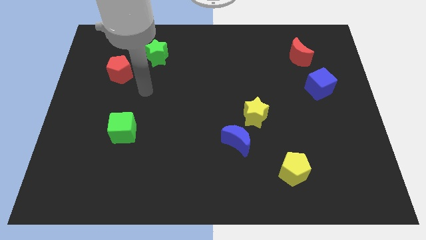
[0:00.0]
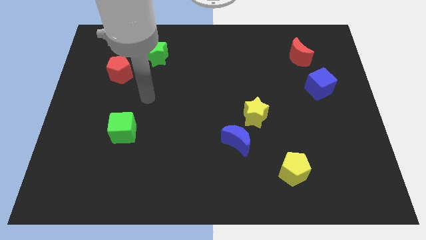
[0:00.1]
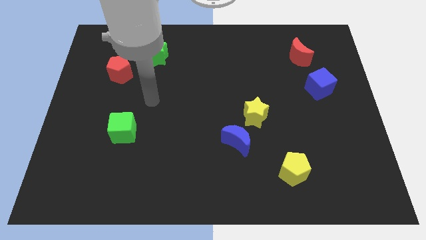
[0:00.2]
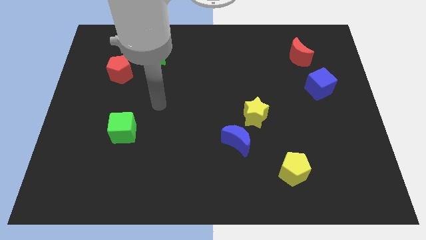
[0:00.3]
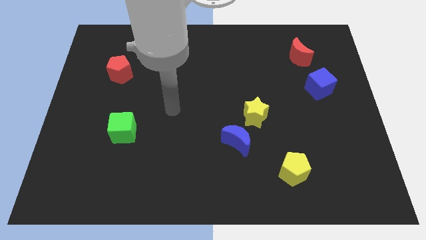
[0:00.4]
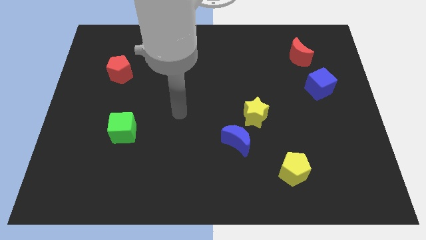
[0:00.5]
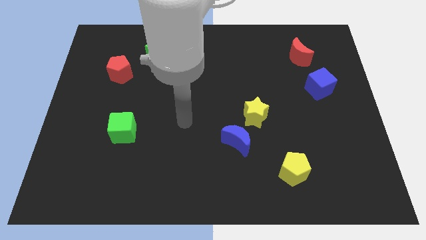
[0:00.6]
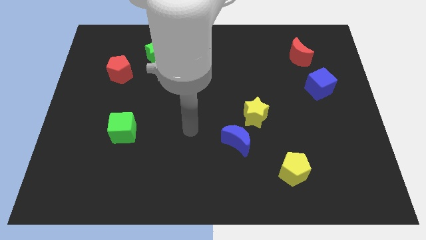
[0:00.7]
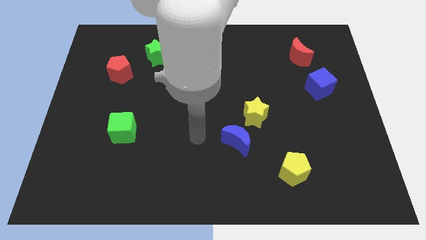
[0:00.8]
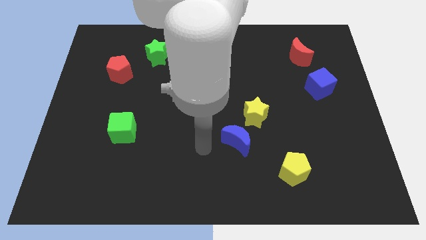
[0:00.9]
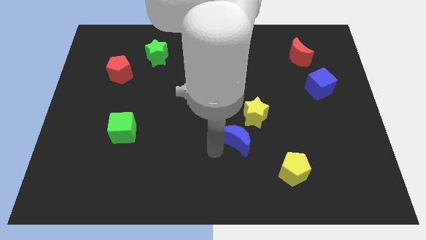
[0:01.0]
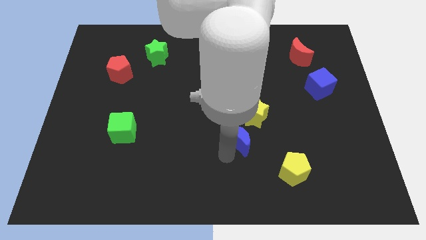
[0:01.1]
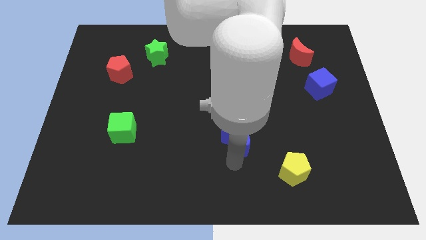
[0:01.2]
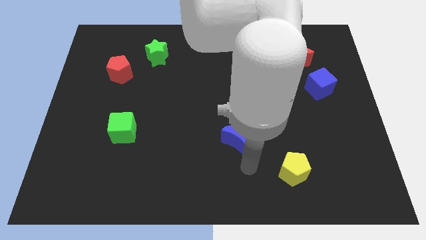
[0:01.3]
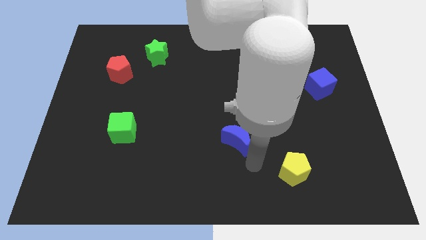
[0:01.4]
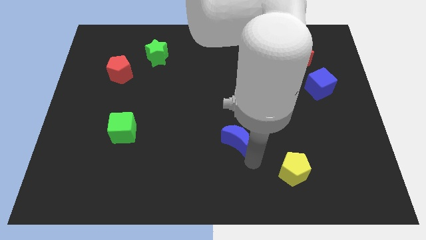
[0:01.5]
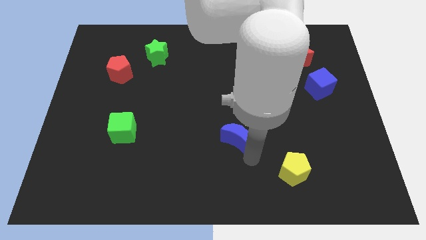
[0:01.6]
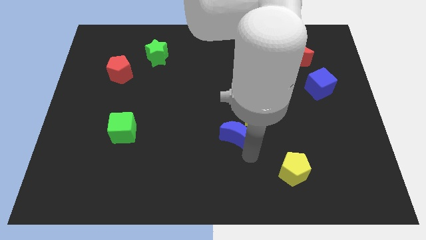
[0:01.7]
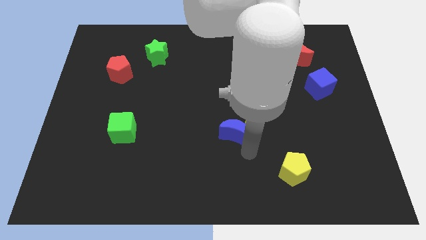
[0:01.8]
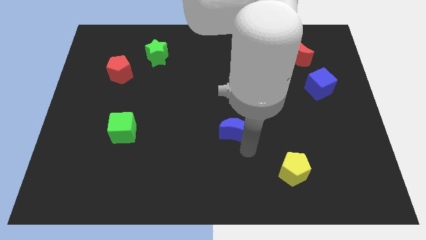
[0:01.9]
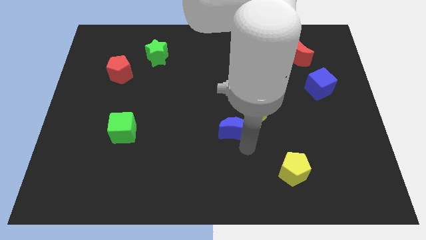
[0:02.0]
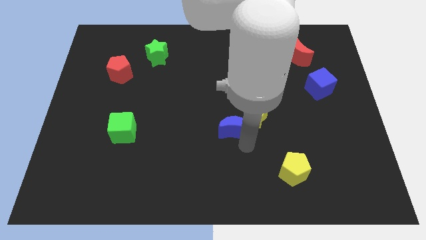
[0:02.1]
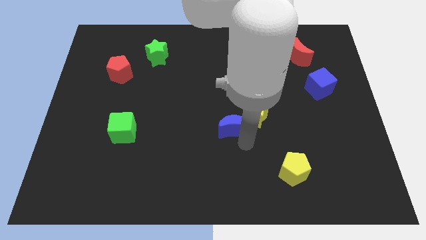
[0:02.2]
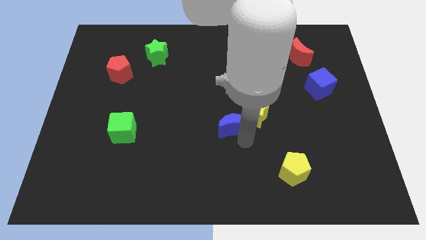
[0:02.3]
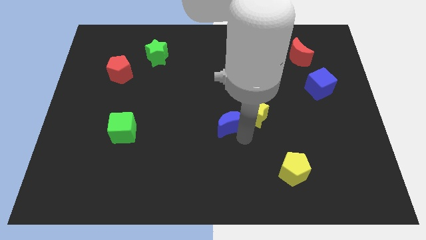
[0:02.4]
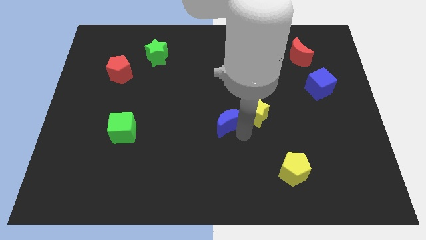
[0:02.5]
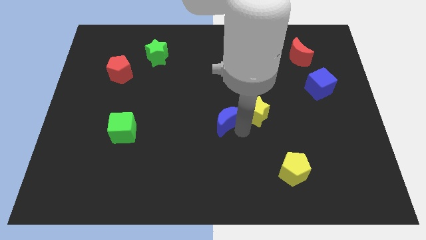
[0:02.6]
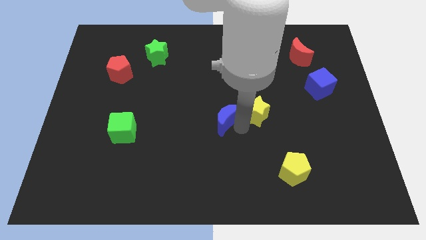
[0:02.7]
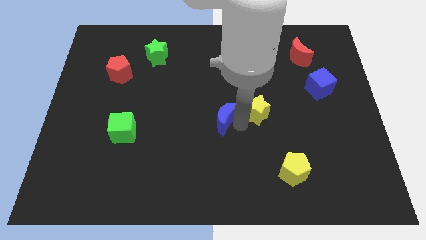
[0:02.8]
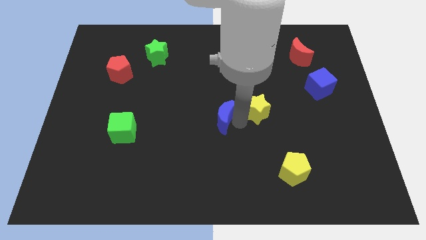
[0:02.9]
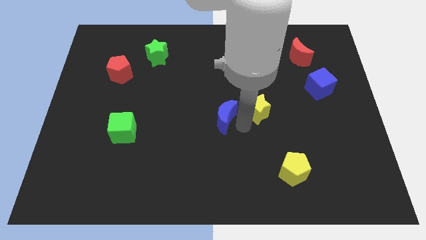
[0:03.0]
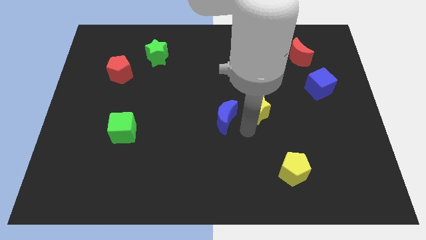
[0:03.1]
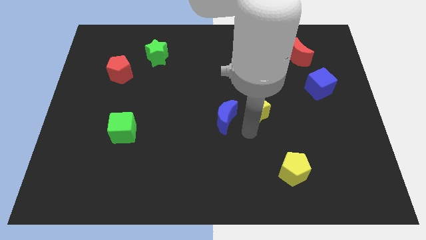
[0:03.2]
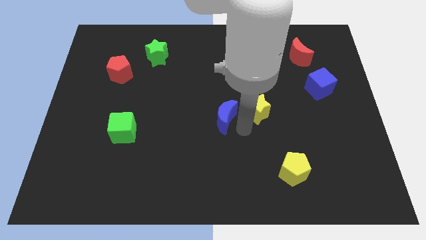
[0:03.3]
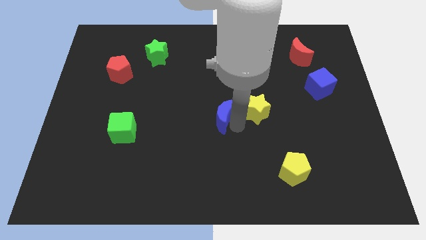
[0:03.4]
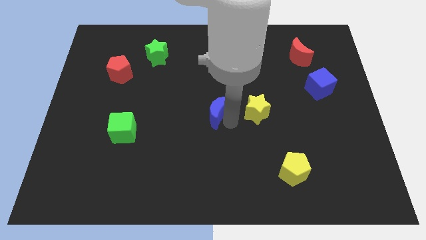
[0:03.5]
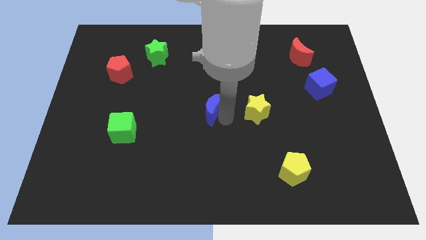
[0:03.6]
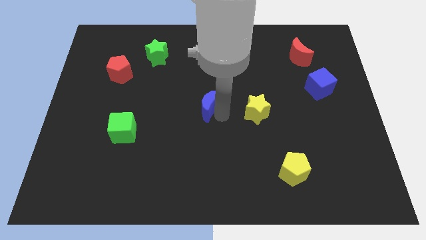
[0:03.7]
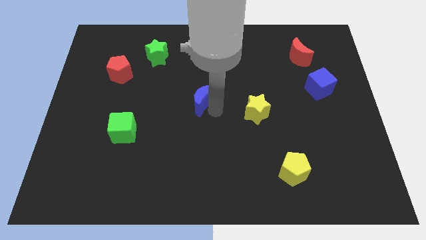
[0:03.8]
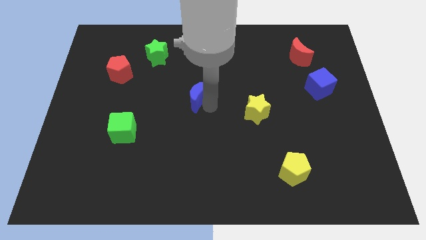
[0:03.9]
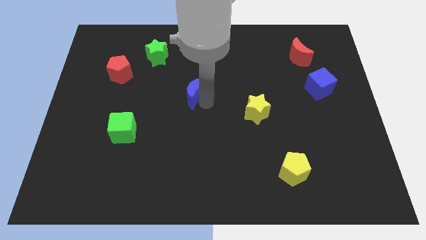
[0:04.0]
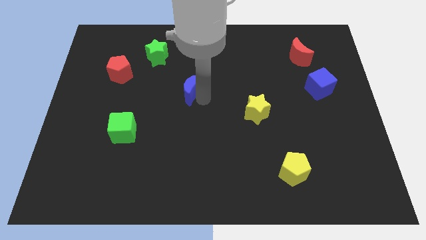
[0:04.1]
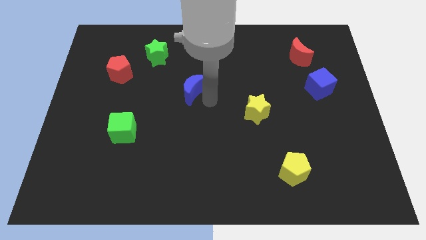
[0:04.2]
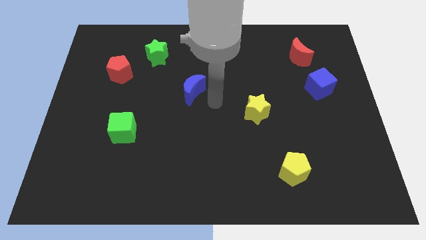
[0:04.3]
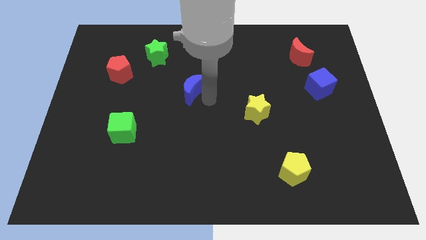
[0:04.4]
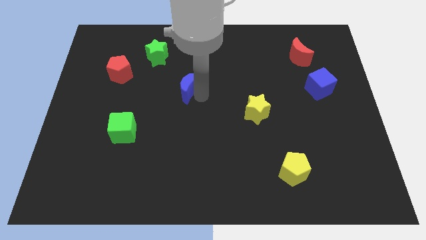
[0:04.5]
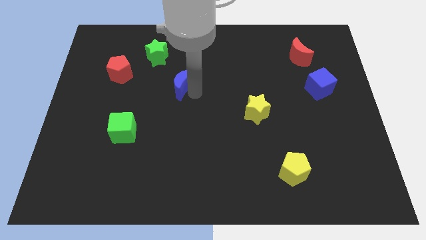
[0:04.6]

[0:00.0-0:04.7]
slide the blue moon upwards and then left

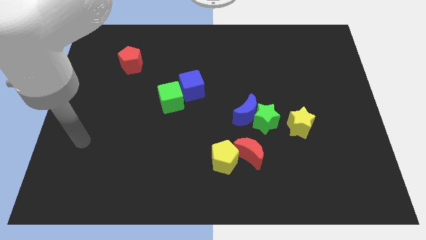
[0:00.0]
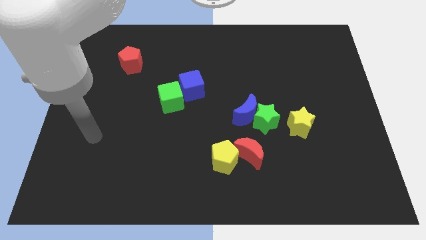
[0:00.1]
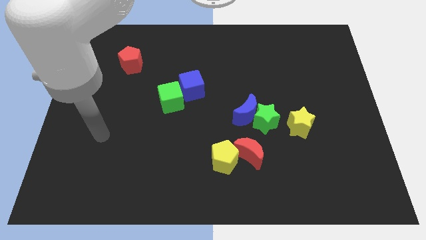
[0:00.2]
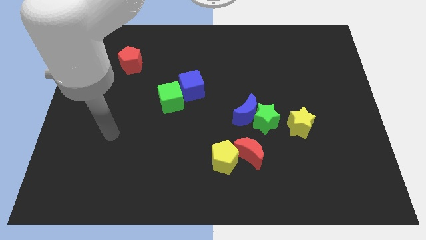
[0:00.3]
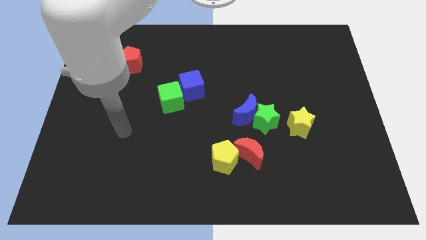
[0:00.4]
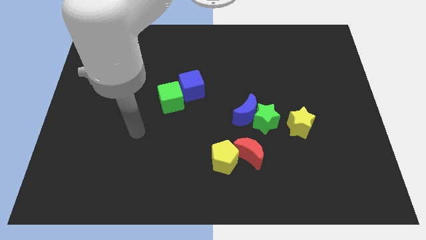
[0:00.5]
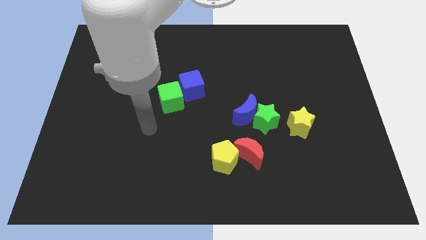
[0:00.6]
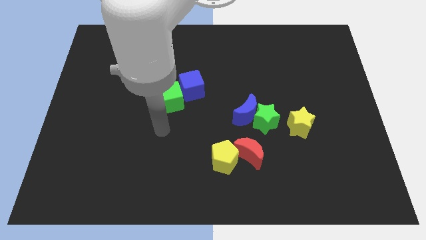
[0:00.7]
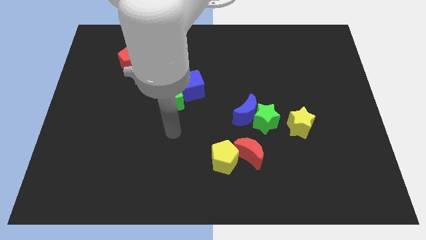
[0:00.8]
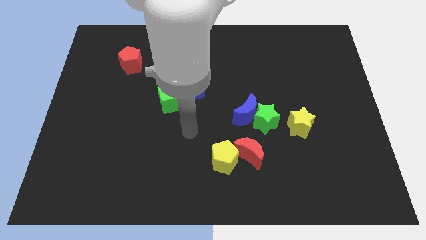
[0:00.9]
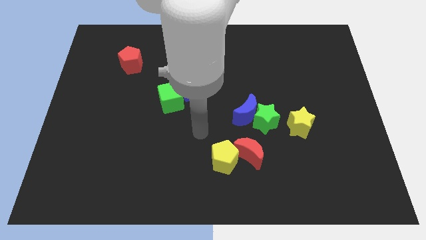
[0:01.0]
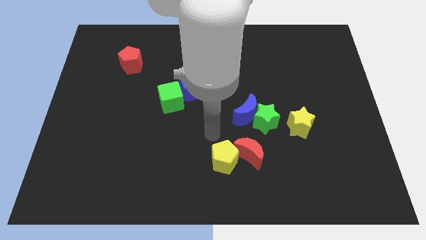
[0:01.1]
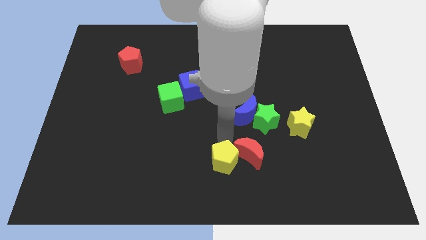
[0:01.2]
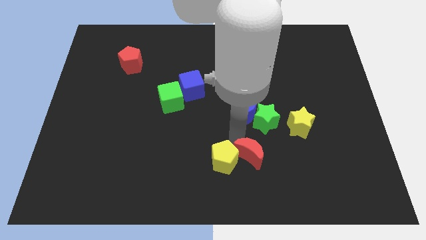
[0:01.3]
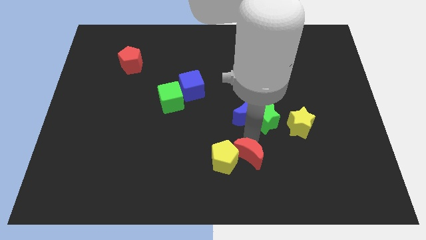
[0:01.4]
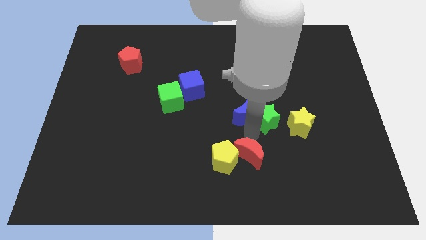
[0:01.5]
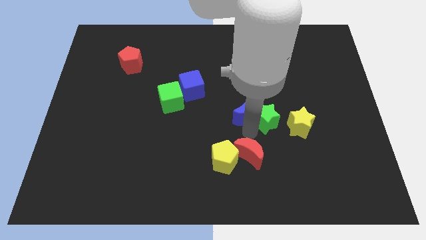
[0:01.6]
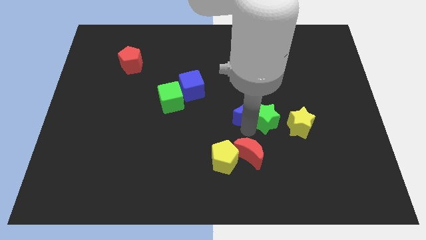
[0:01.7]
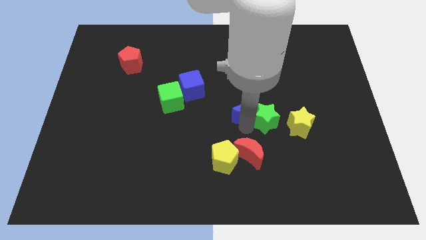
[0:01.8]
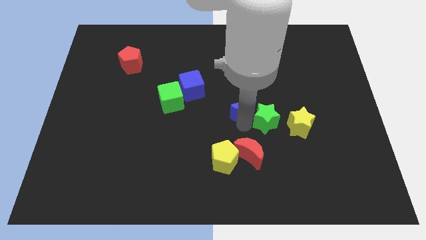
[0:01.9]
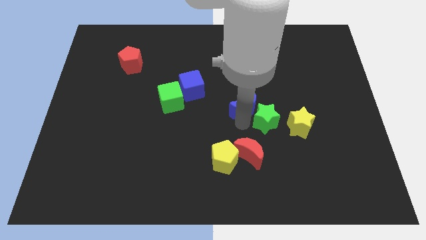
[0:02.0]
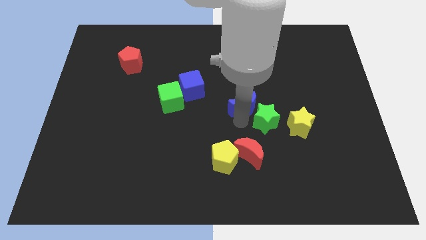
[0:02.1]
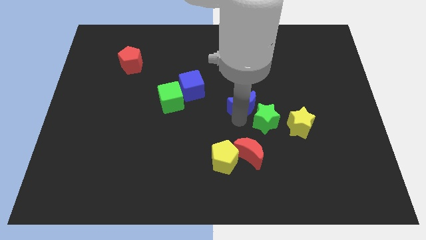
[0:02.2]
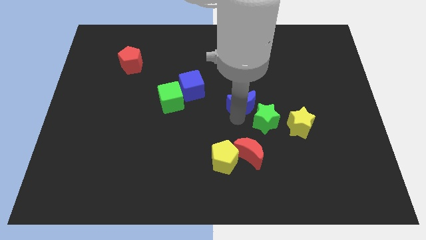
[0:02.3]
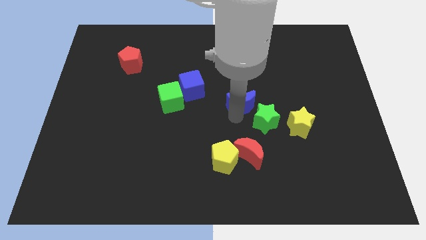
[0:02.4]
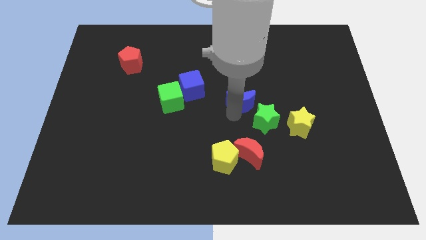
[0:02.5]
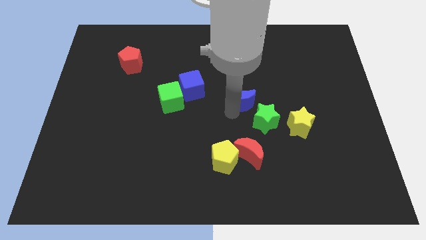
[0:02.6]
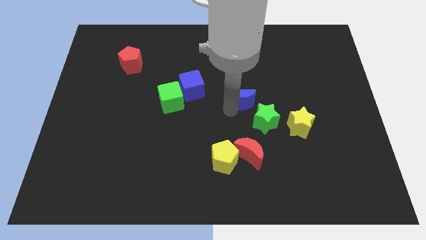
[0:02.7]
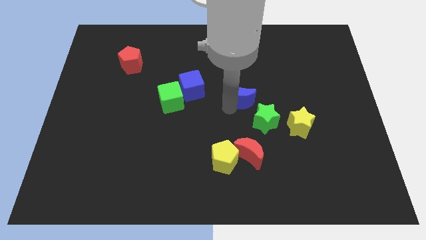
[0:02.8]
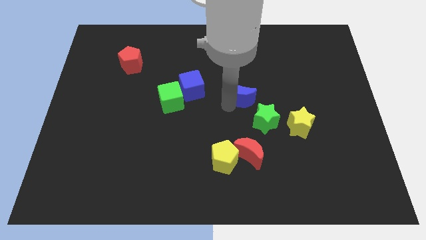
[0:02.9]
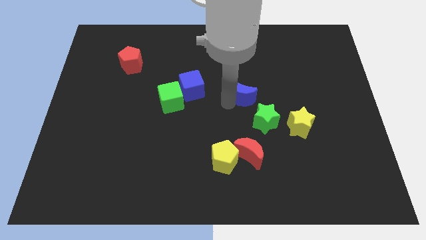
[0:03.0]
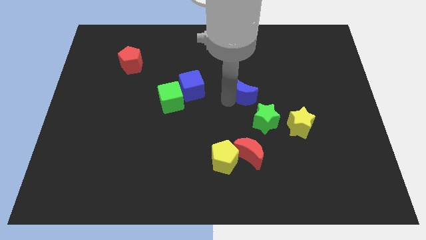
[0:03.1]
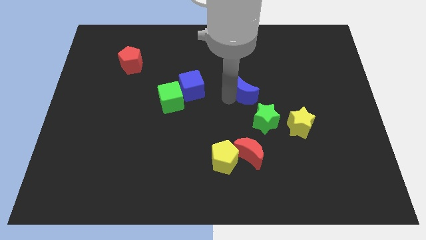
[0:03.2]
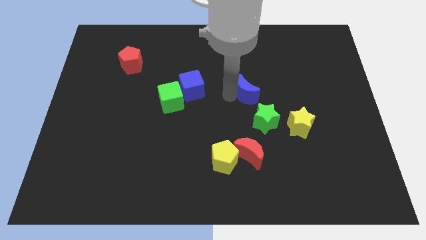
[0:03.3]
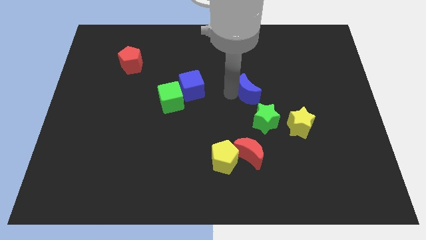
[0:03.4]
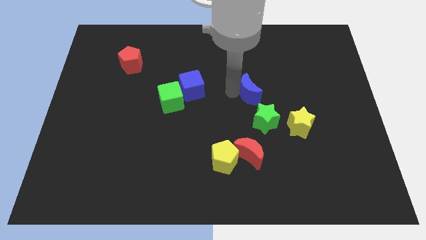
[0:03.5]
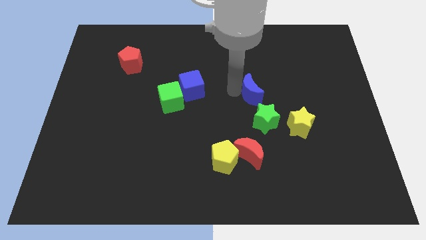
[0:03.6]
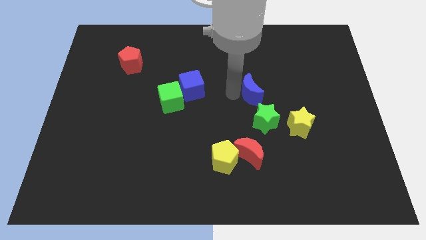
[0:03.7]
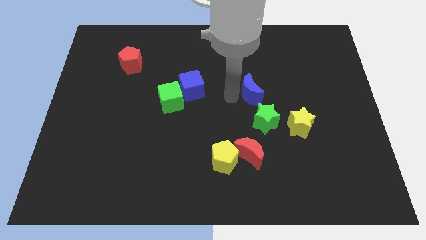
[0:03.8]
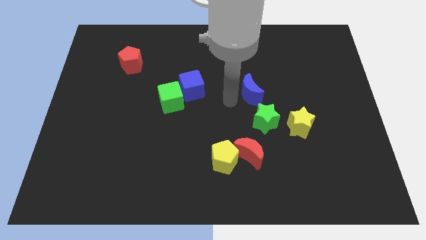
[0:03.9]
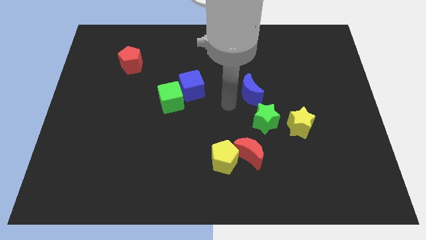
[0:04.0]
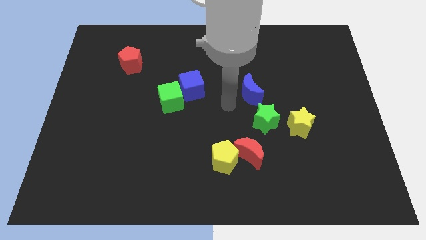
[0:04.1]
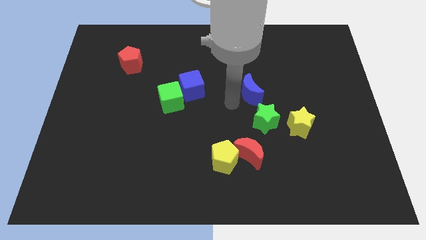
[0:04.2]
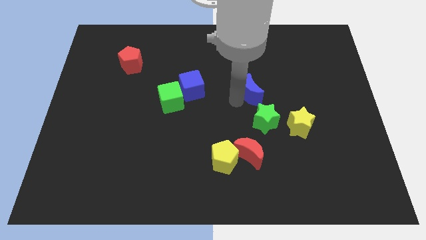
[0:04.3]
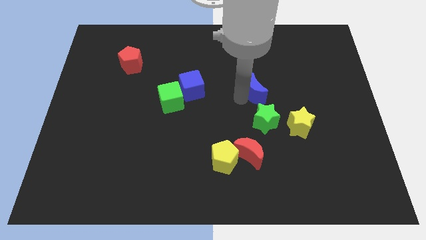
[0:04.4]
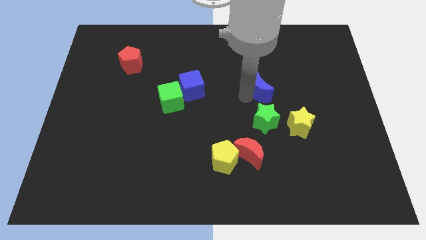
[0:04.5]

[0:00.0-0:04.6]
push the blue moon diagonally upwards and to the right a little bit
